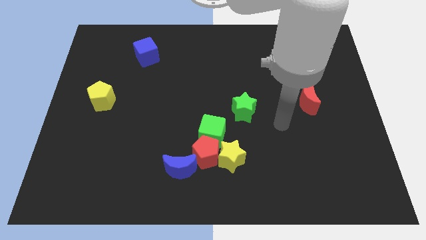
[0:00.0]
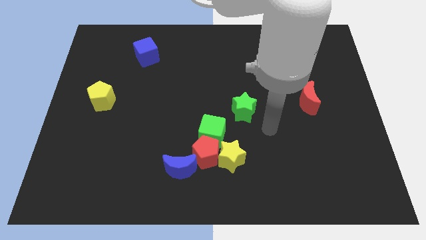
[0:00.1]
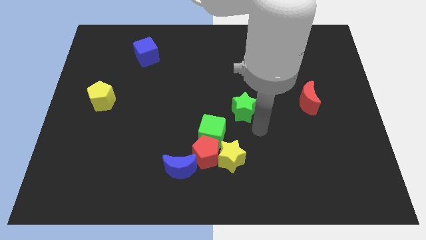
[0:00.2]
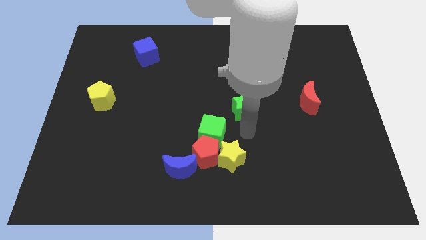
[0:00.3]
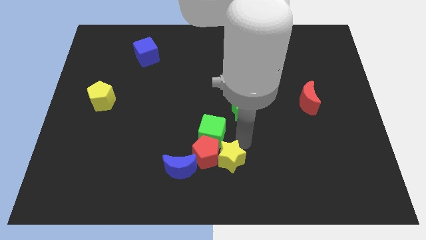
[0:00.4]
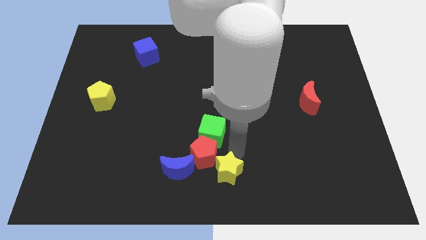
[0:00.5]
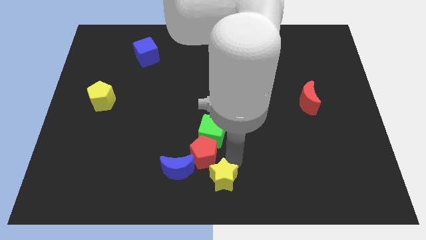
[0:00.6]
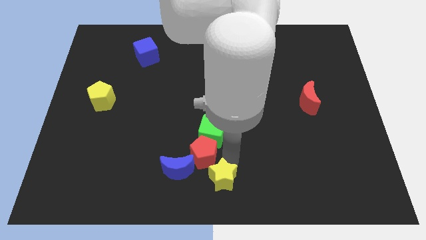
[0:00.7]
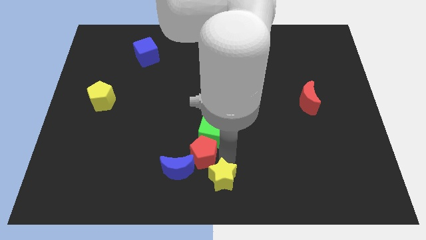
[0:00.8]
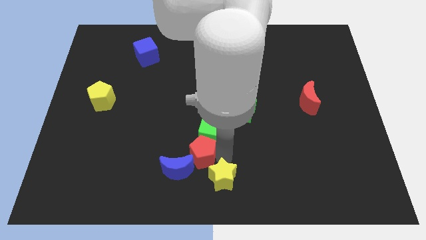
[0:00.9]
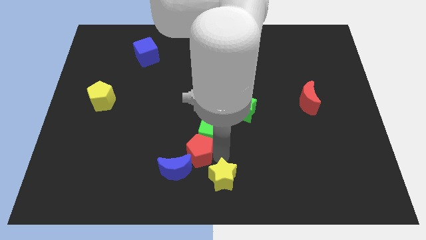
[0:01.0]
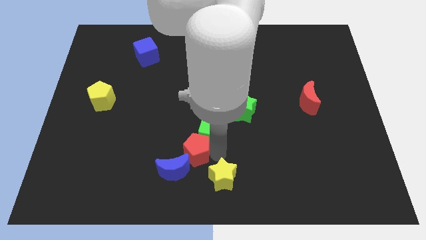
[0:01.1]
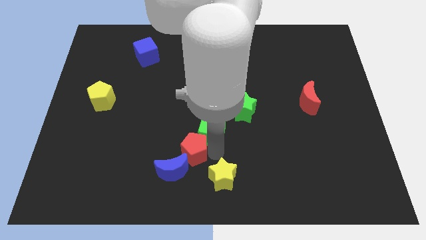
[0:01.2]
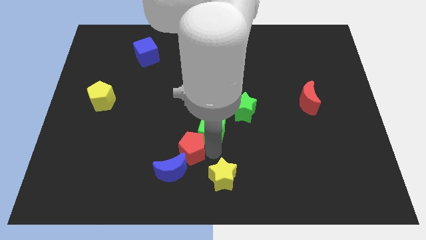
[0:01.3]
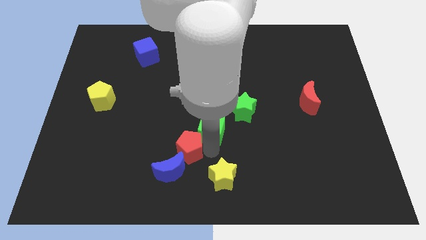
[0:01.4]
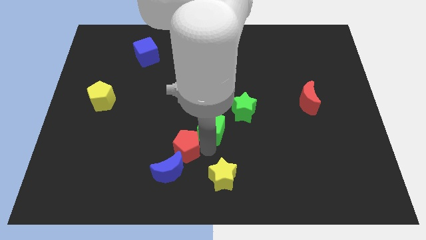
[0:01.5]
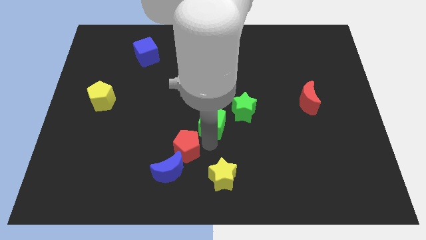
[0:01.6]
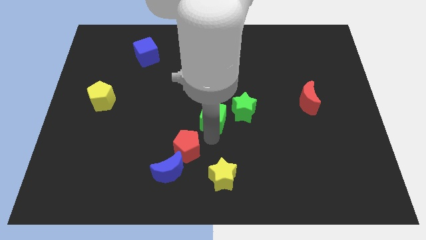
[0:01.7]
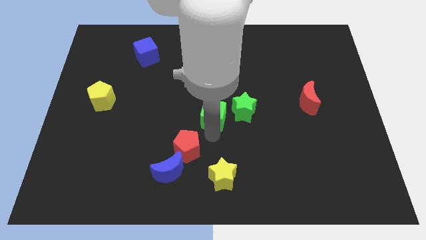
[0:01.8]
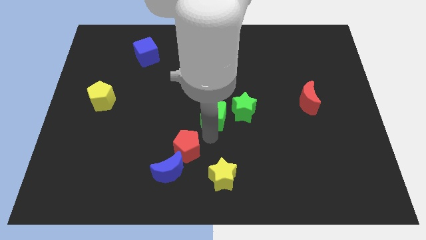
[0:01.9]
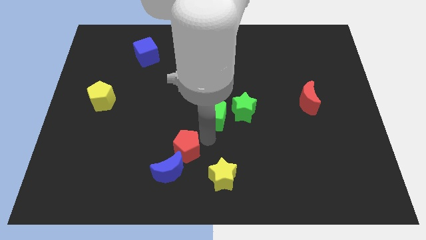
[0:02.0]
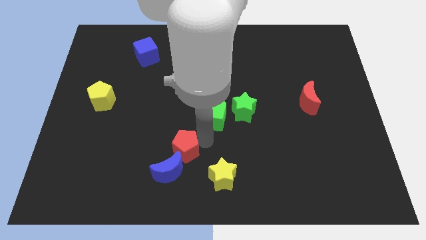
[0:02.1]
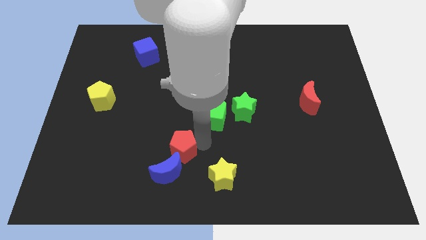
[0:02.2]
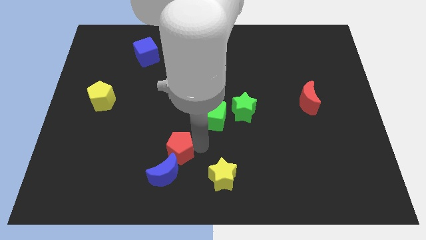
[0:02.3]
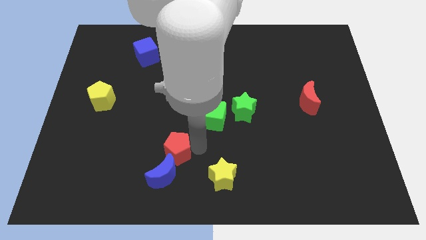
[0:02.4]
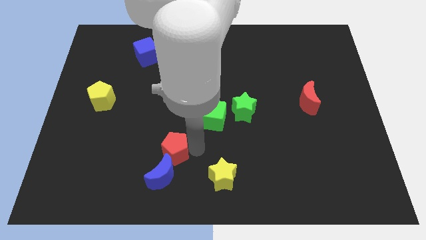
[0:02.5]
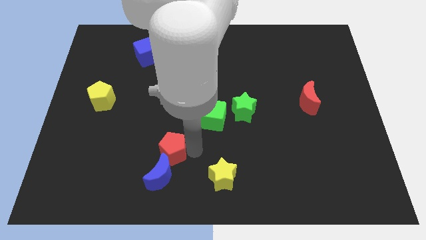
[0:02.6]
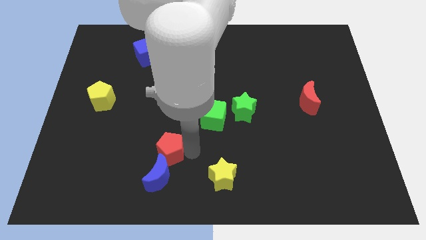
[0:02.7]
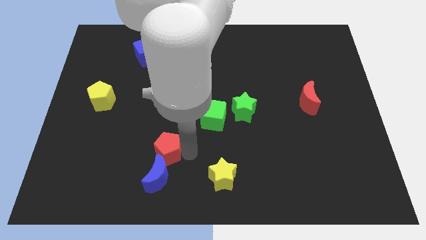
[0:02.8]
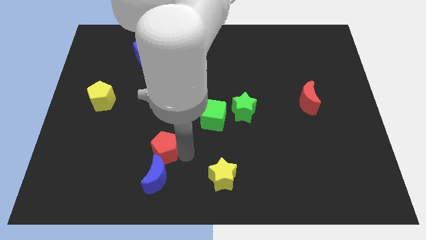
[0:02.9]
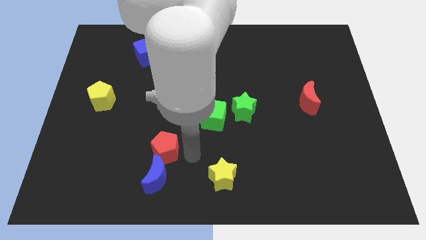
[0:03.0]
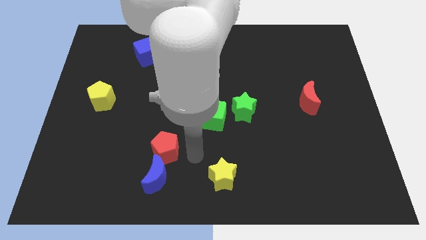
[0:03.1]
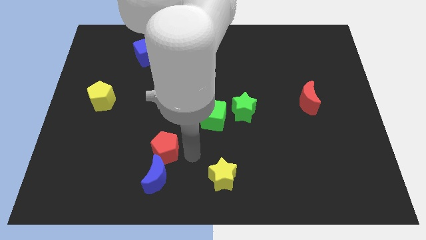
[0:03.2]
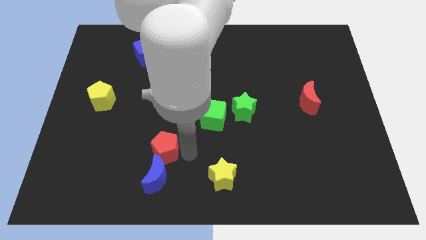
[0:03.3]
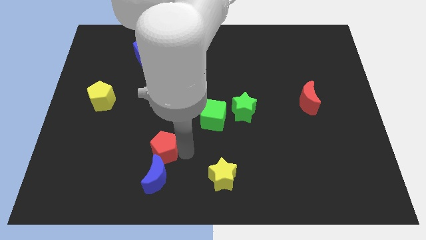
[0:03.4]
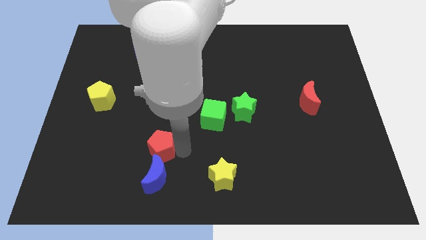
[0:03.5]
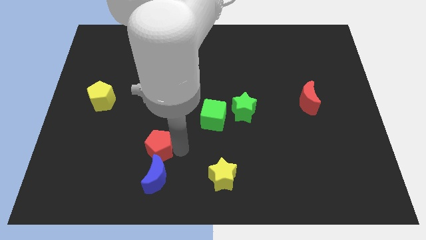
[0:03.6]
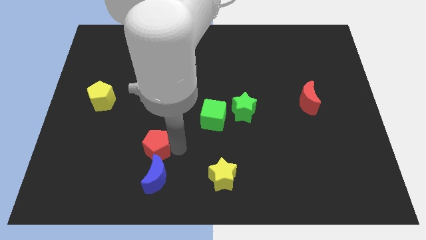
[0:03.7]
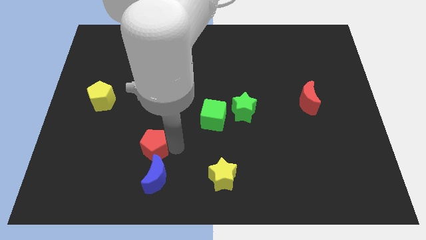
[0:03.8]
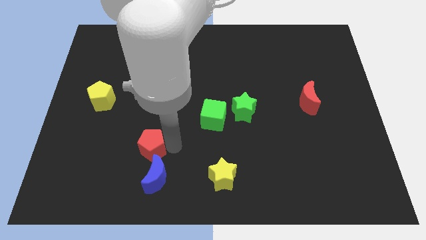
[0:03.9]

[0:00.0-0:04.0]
move the red pentagon away from the group of blocks

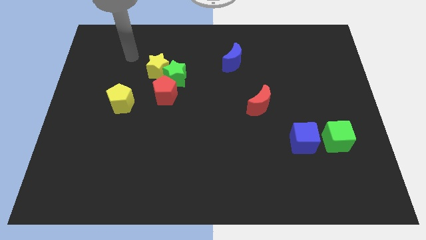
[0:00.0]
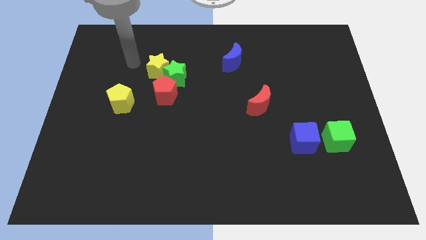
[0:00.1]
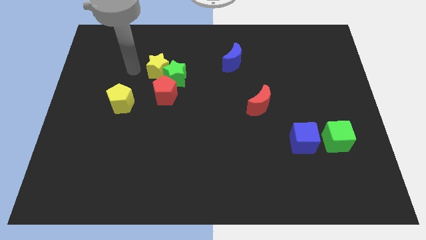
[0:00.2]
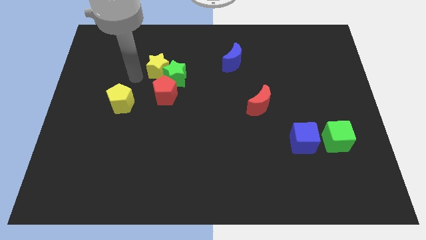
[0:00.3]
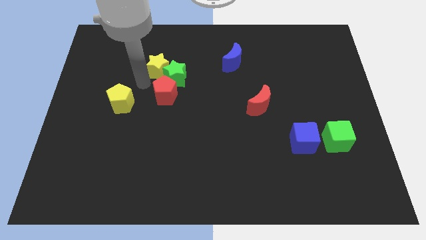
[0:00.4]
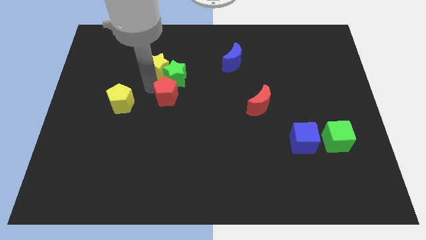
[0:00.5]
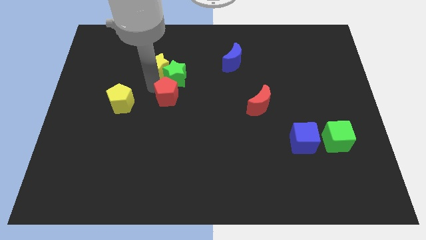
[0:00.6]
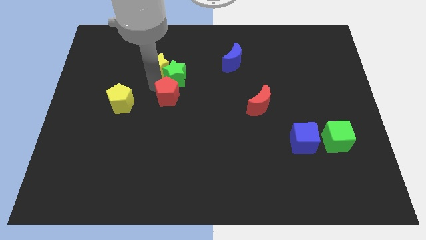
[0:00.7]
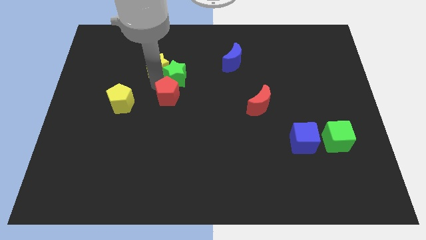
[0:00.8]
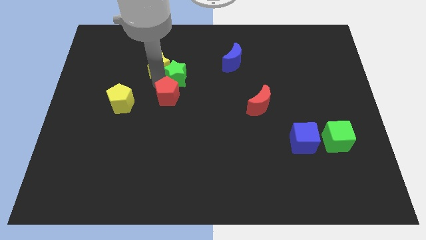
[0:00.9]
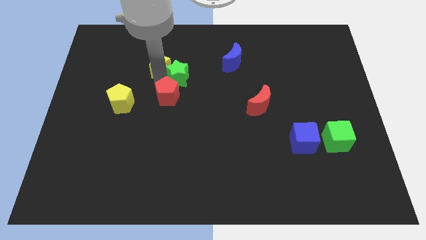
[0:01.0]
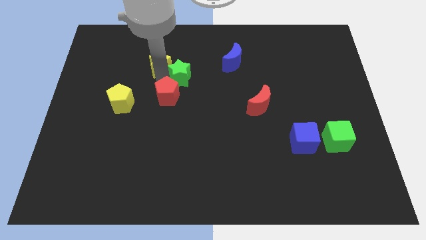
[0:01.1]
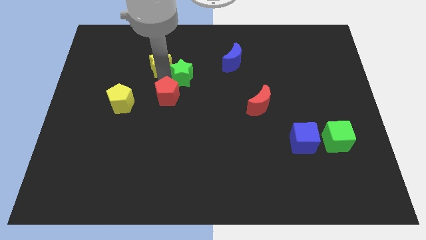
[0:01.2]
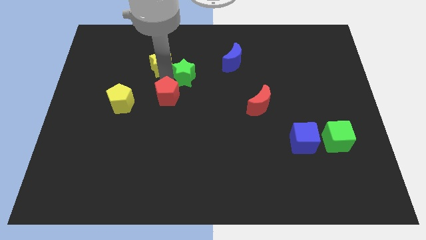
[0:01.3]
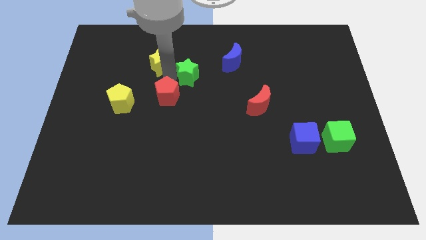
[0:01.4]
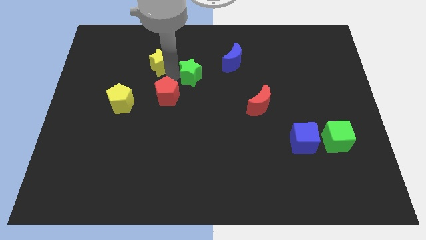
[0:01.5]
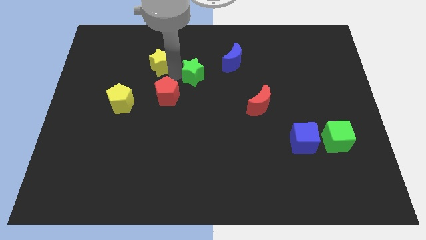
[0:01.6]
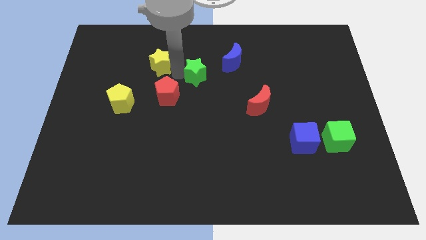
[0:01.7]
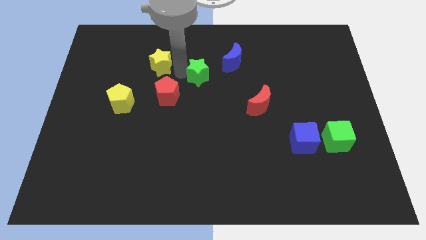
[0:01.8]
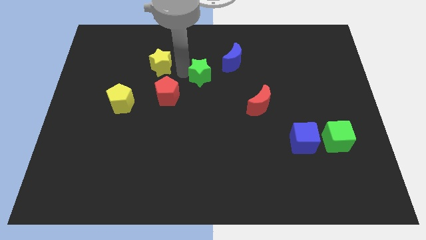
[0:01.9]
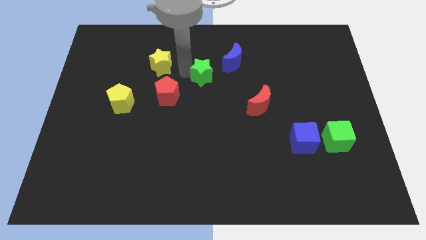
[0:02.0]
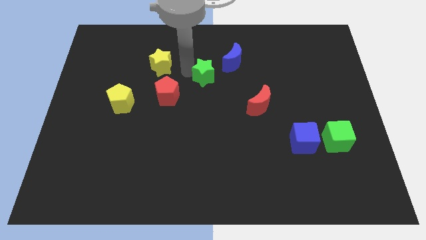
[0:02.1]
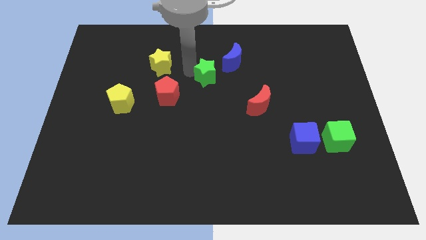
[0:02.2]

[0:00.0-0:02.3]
pull the green star apart from the yellow star and red pentagon

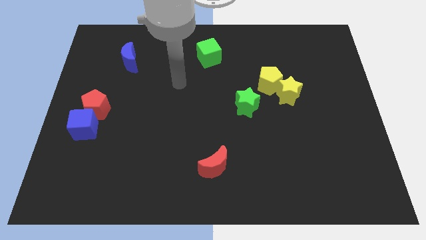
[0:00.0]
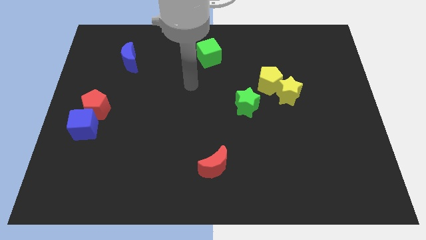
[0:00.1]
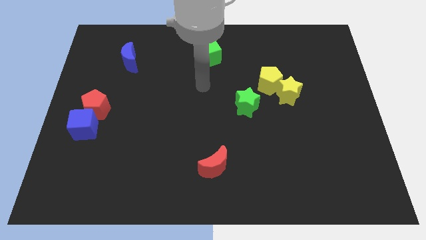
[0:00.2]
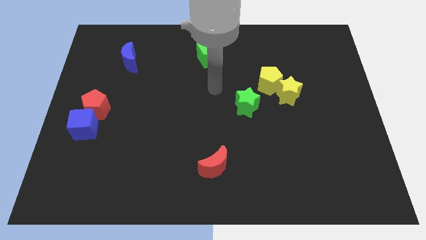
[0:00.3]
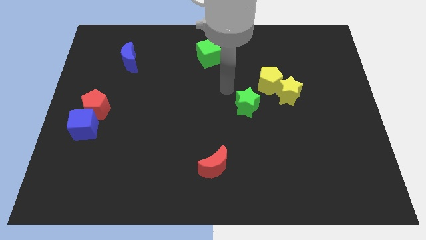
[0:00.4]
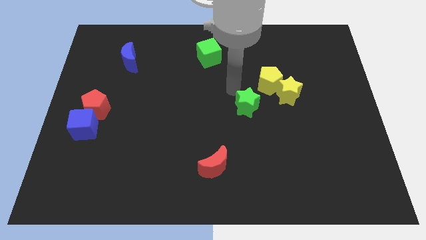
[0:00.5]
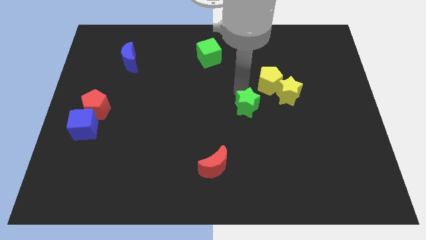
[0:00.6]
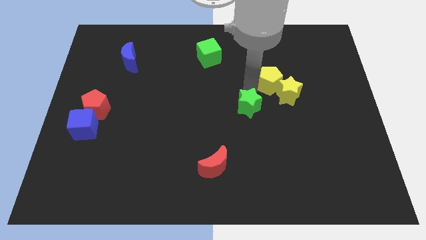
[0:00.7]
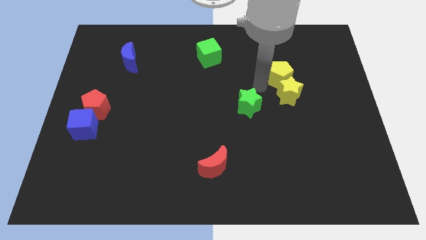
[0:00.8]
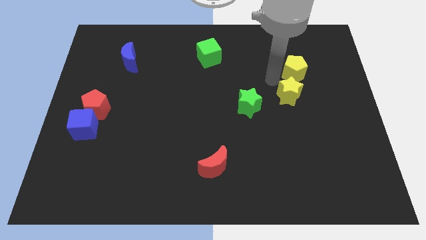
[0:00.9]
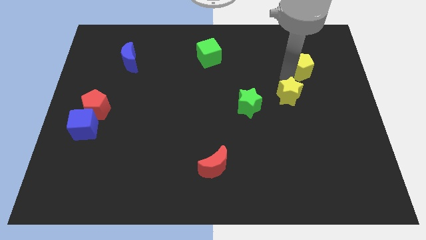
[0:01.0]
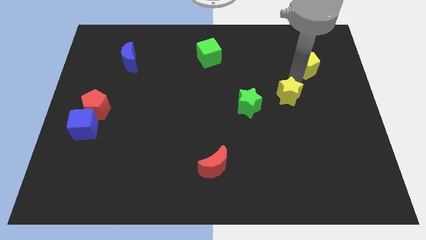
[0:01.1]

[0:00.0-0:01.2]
separate the yellow star from the yellow pentagon

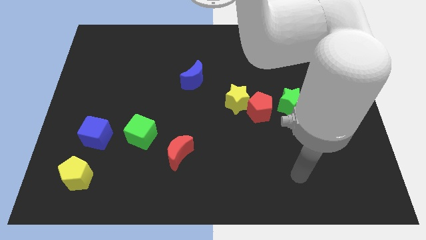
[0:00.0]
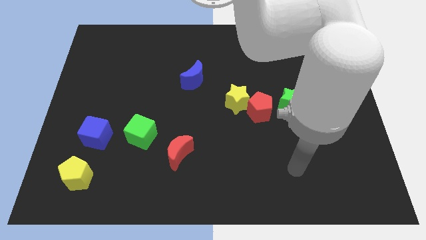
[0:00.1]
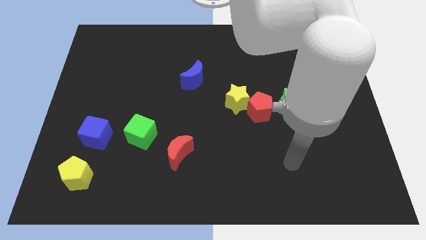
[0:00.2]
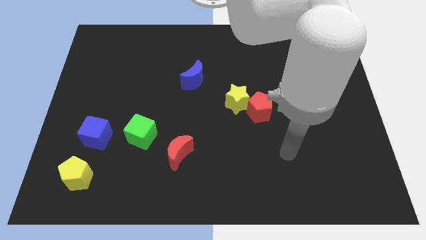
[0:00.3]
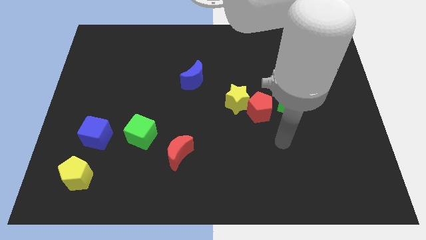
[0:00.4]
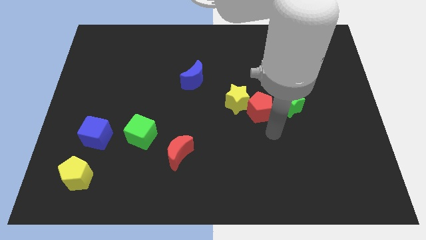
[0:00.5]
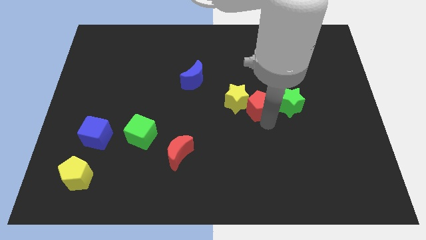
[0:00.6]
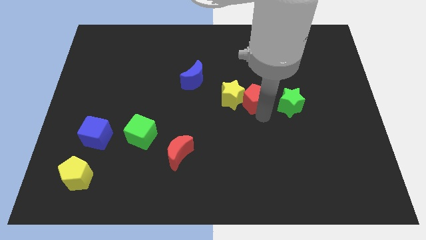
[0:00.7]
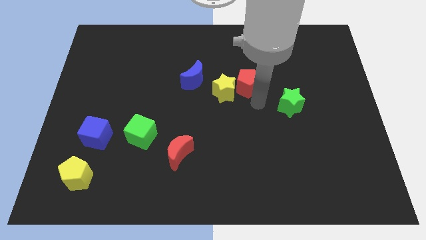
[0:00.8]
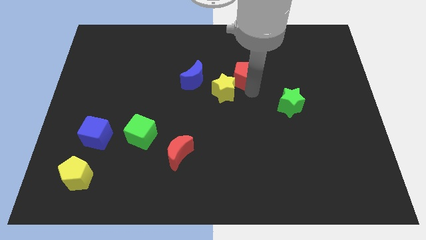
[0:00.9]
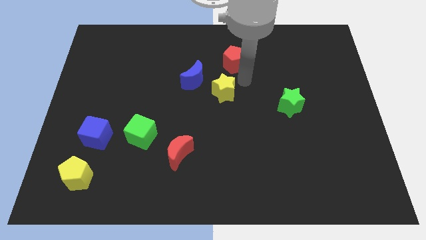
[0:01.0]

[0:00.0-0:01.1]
pull the yellow star apart from the red pentagon

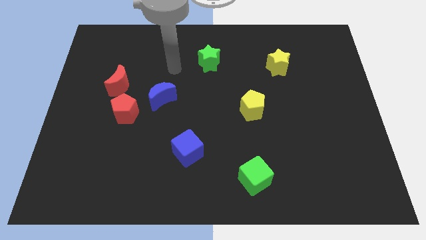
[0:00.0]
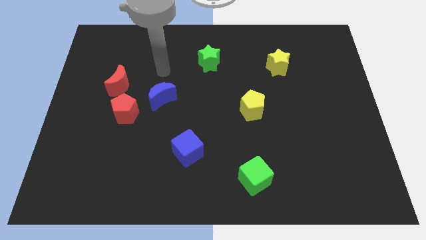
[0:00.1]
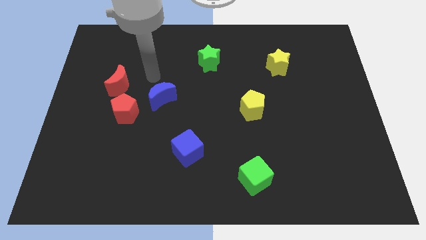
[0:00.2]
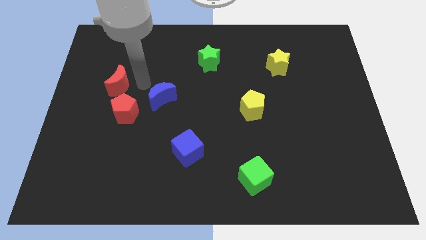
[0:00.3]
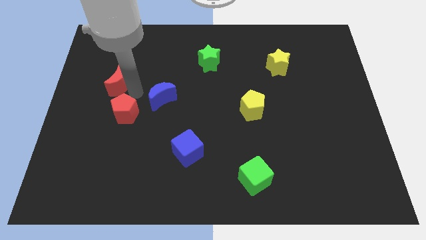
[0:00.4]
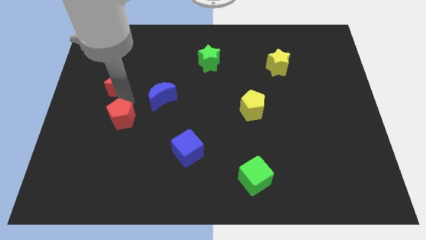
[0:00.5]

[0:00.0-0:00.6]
separate the red moon from the red pentagon

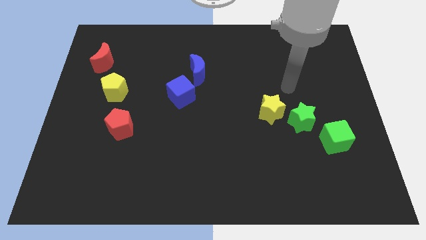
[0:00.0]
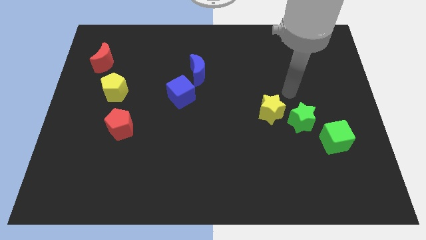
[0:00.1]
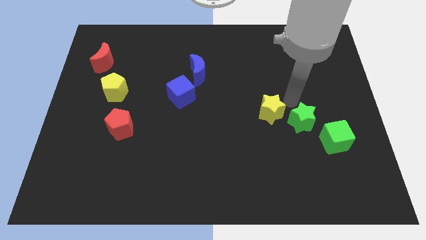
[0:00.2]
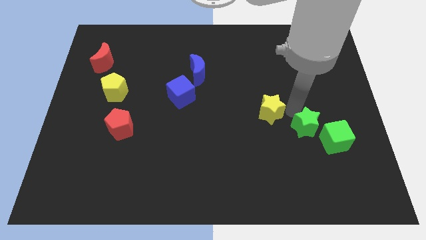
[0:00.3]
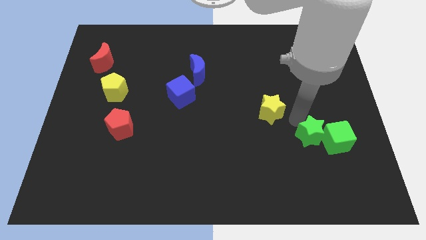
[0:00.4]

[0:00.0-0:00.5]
move the yellow star away from the green star
